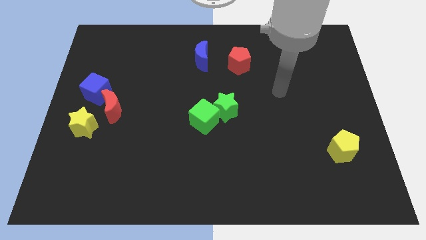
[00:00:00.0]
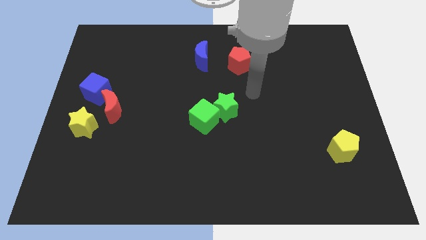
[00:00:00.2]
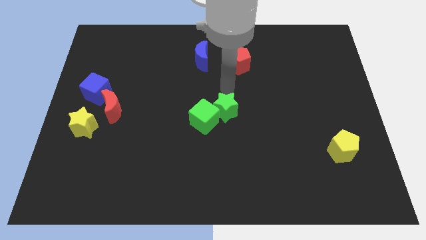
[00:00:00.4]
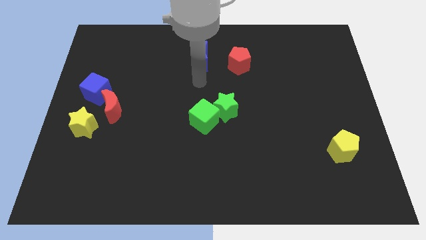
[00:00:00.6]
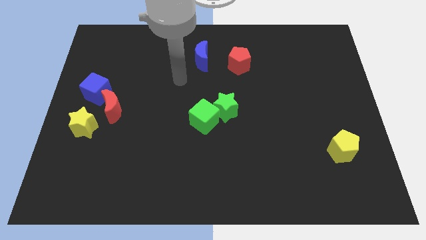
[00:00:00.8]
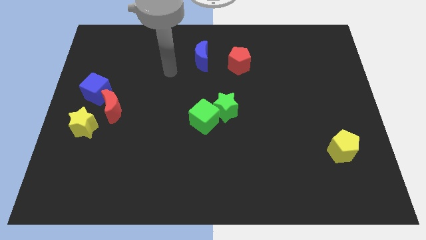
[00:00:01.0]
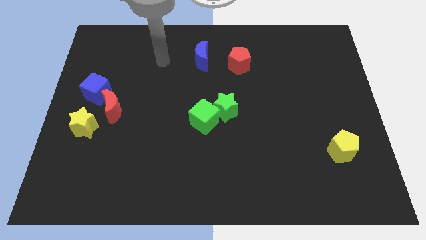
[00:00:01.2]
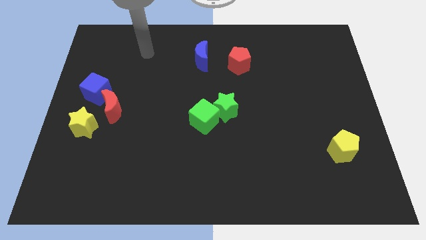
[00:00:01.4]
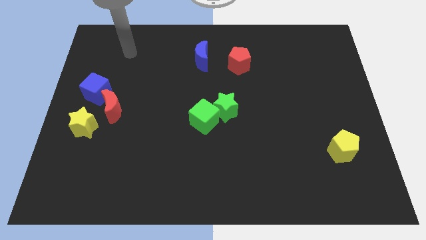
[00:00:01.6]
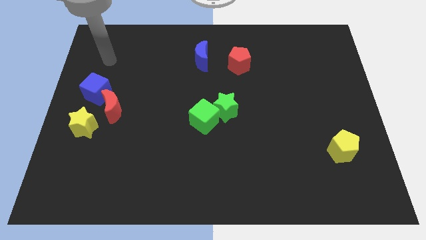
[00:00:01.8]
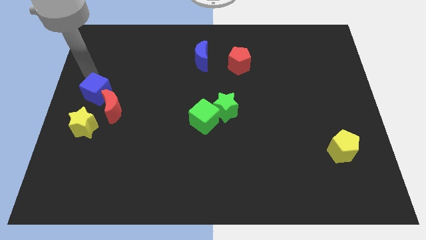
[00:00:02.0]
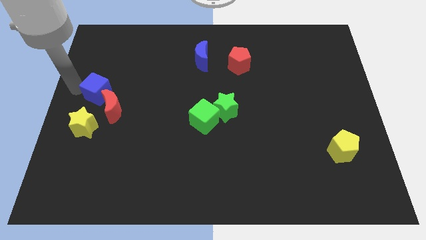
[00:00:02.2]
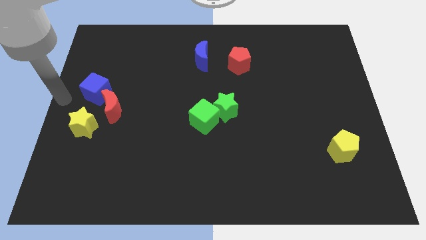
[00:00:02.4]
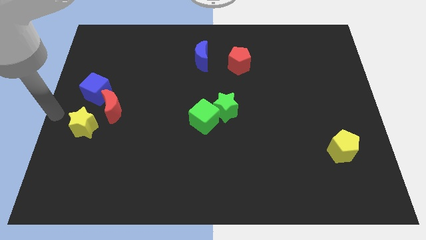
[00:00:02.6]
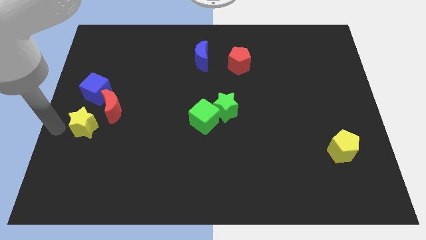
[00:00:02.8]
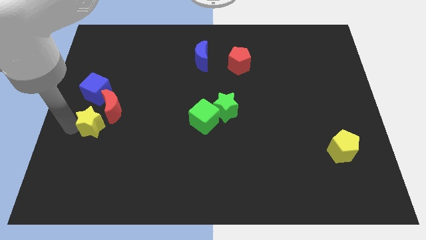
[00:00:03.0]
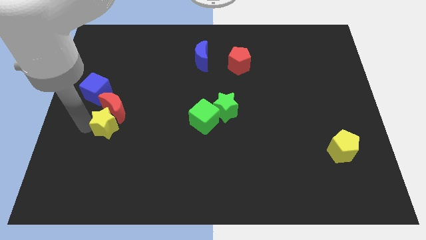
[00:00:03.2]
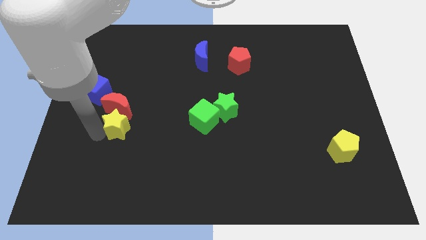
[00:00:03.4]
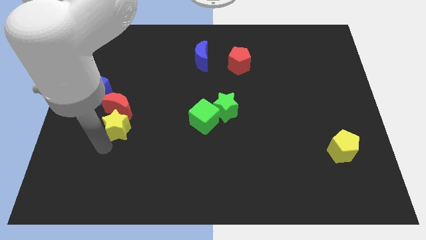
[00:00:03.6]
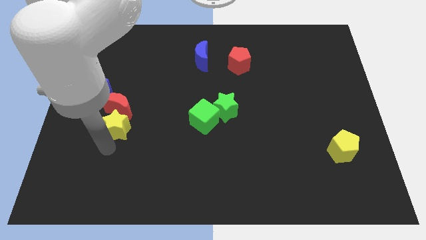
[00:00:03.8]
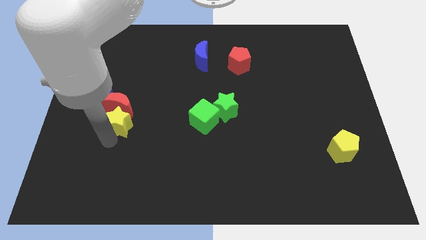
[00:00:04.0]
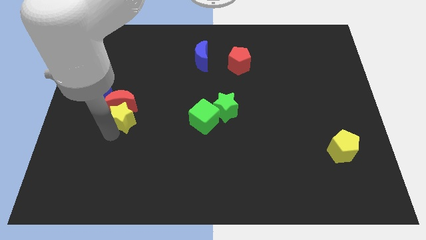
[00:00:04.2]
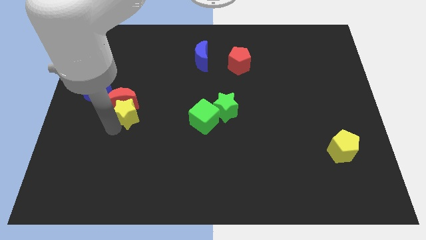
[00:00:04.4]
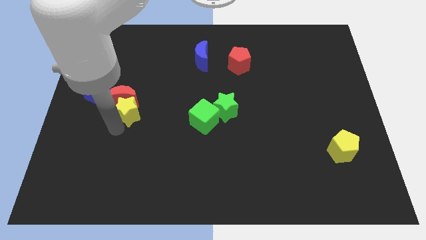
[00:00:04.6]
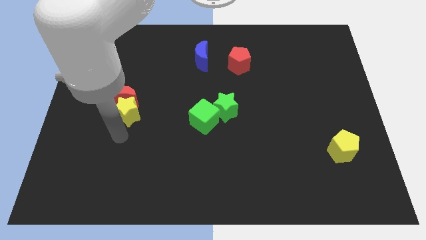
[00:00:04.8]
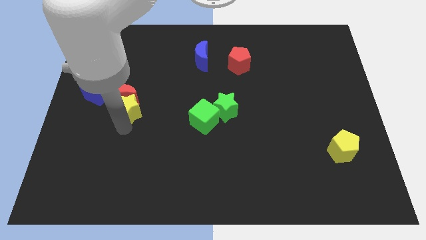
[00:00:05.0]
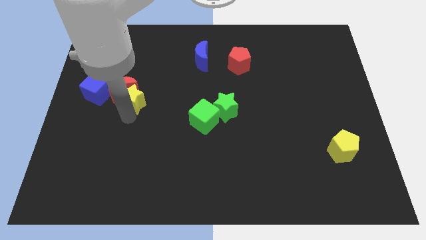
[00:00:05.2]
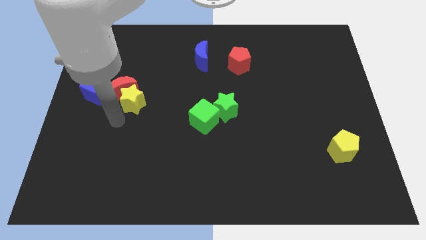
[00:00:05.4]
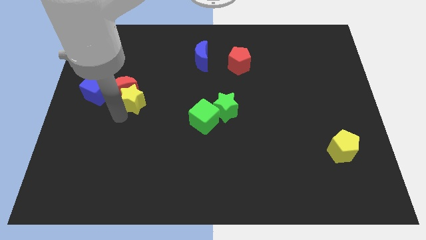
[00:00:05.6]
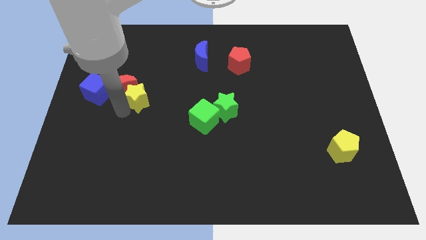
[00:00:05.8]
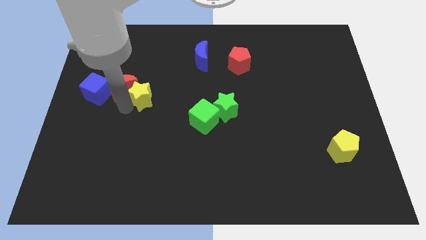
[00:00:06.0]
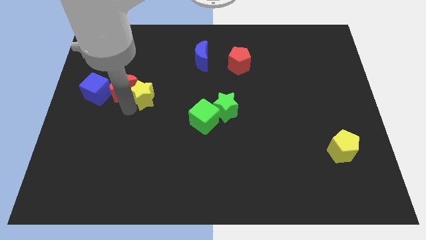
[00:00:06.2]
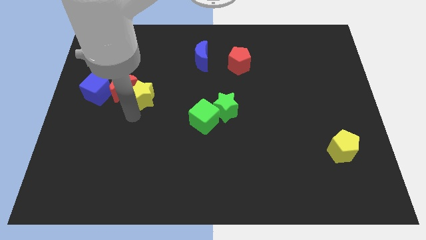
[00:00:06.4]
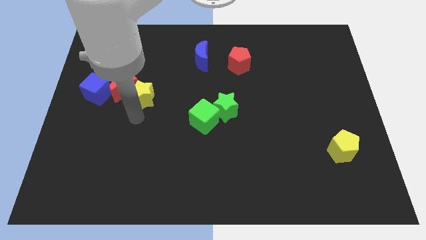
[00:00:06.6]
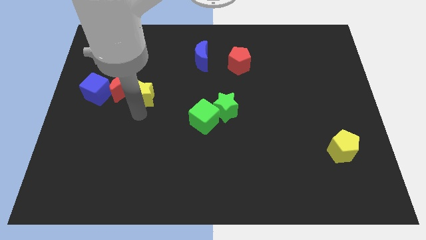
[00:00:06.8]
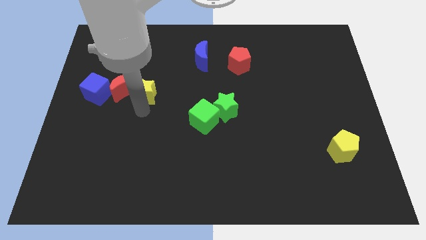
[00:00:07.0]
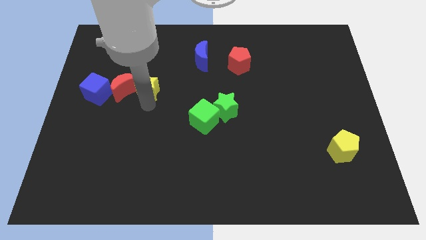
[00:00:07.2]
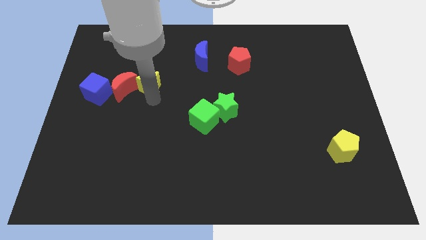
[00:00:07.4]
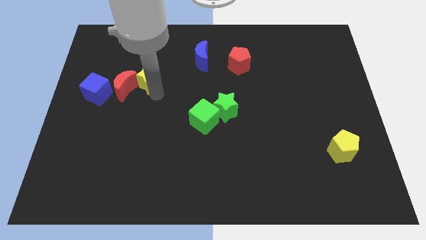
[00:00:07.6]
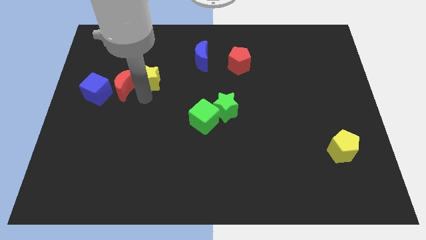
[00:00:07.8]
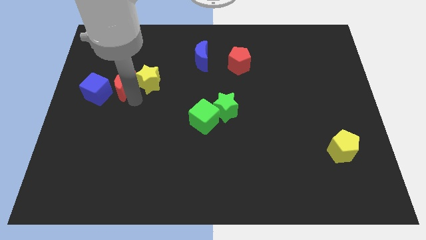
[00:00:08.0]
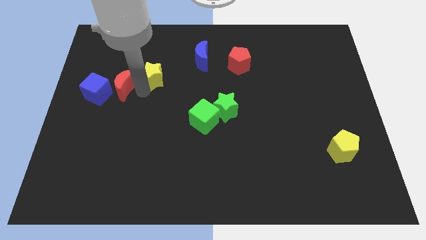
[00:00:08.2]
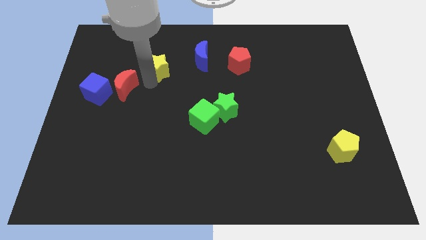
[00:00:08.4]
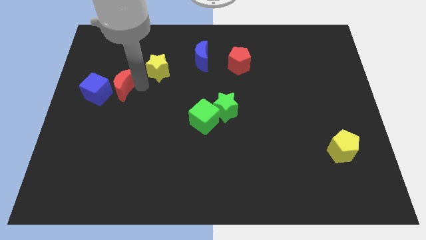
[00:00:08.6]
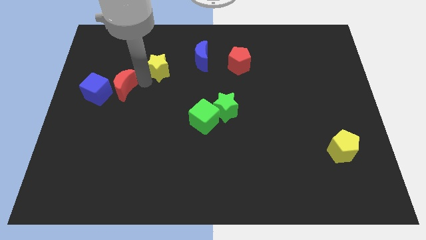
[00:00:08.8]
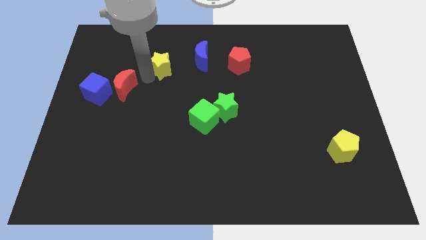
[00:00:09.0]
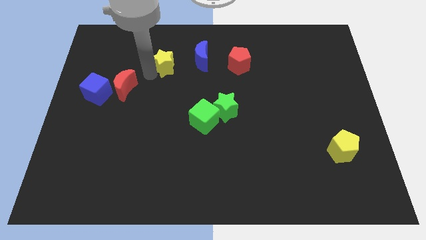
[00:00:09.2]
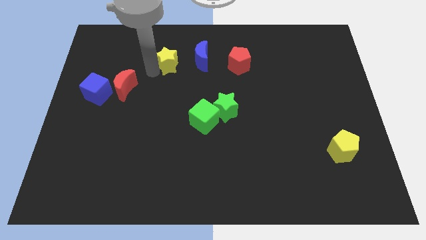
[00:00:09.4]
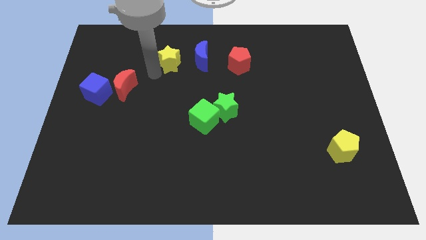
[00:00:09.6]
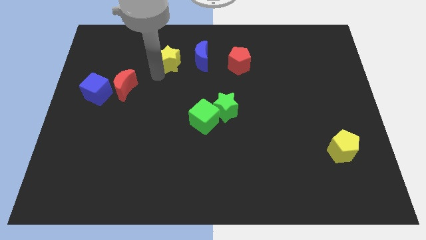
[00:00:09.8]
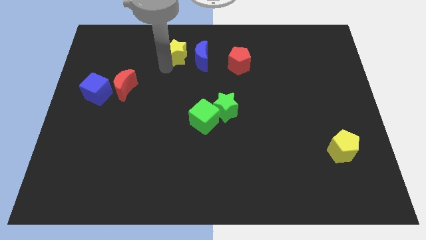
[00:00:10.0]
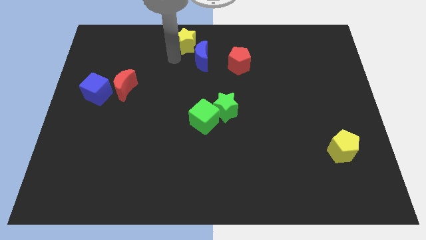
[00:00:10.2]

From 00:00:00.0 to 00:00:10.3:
put the yellow star to the top

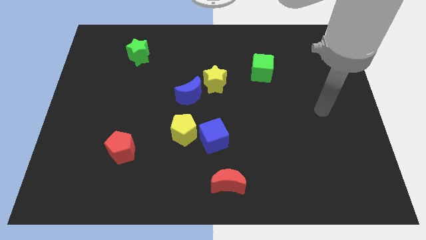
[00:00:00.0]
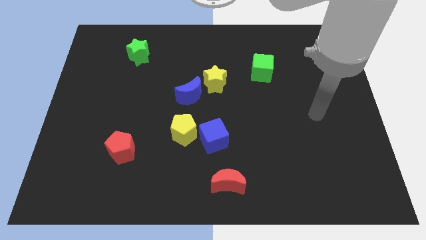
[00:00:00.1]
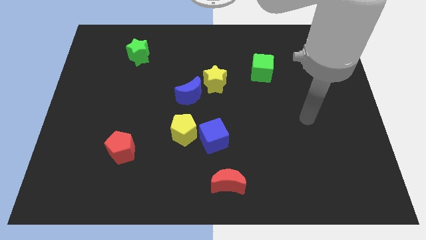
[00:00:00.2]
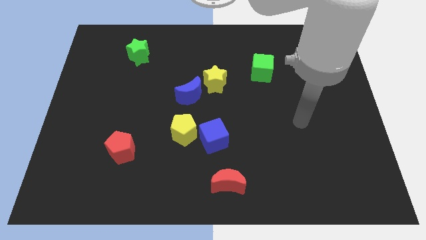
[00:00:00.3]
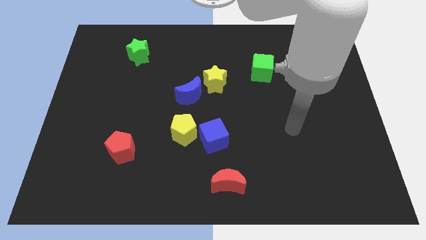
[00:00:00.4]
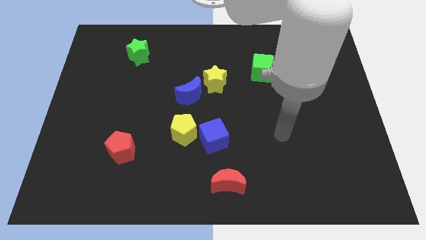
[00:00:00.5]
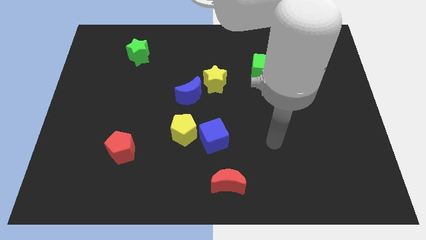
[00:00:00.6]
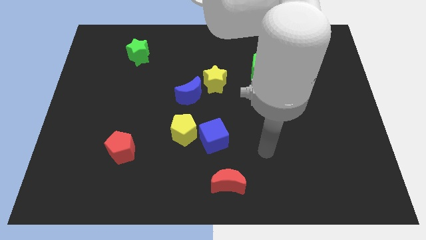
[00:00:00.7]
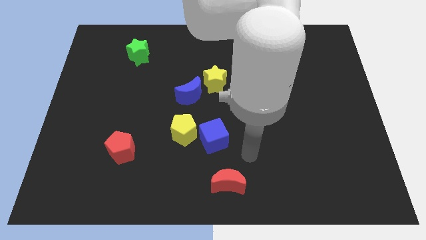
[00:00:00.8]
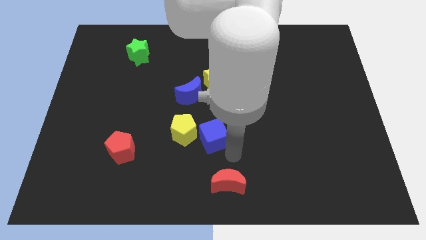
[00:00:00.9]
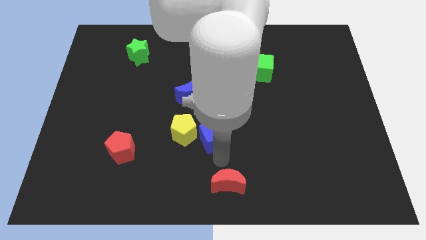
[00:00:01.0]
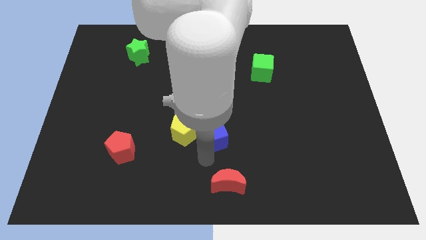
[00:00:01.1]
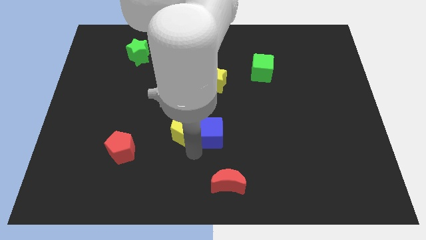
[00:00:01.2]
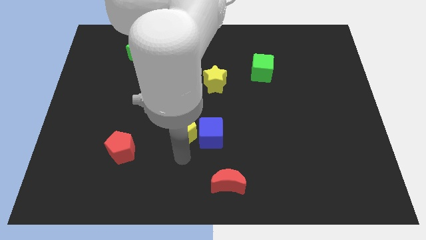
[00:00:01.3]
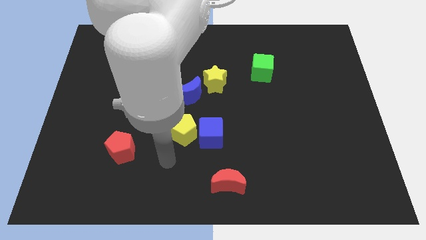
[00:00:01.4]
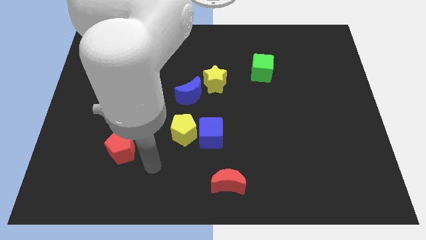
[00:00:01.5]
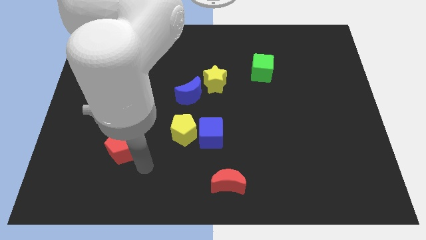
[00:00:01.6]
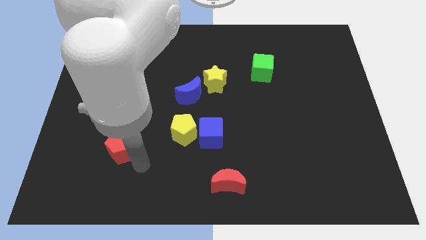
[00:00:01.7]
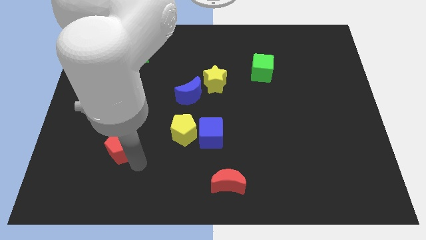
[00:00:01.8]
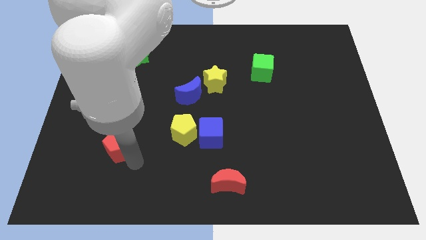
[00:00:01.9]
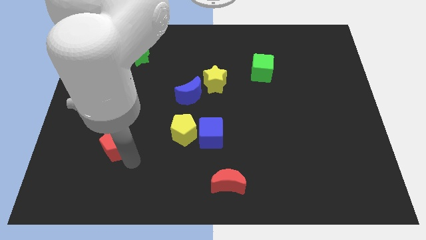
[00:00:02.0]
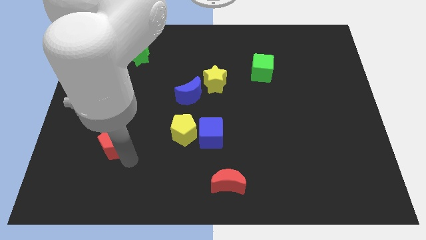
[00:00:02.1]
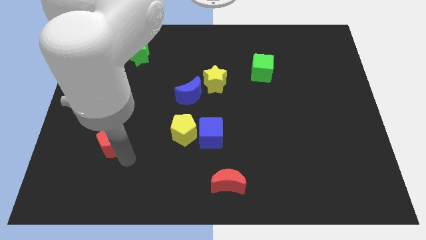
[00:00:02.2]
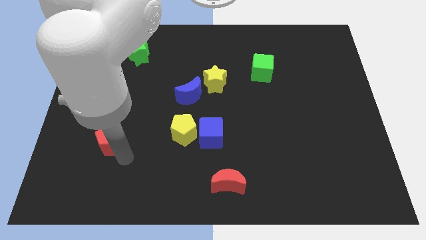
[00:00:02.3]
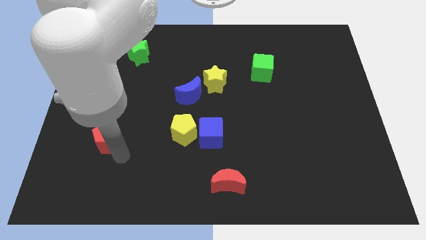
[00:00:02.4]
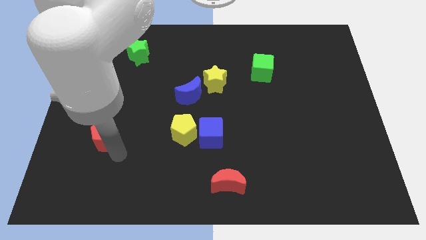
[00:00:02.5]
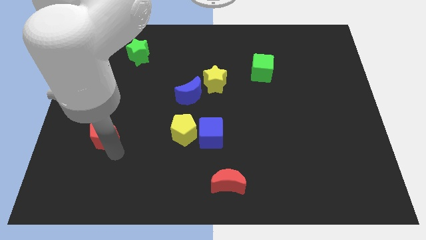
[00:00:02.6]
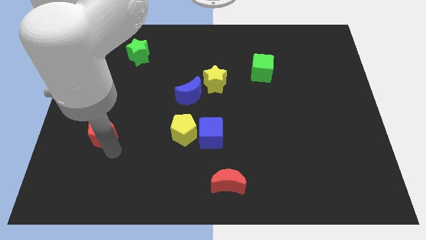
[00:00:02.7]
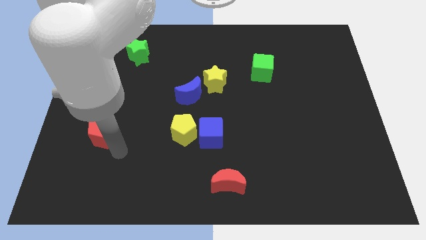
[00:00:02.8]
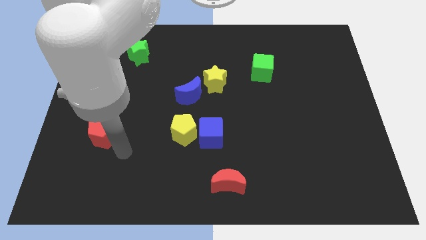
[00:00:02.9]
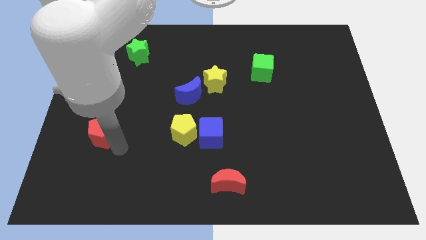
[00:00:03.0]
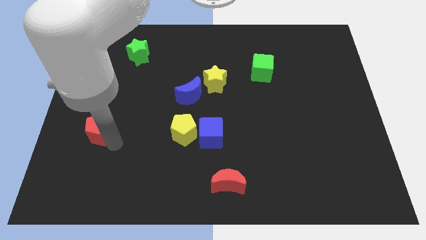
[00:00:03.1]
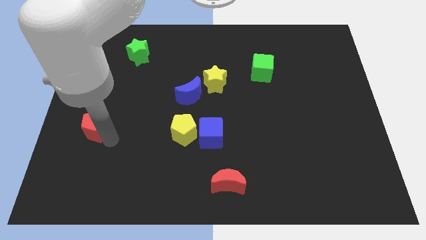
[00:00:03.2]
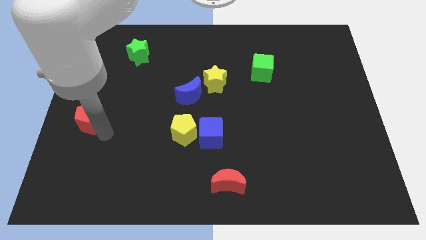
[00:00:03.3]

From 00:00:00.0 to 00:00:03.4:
slide the red pentagon to the center left
